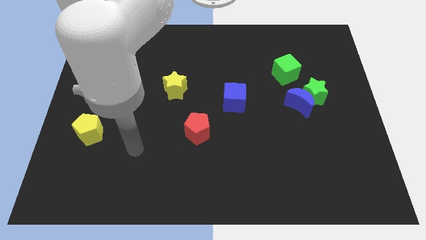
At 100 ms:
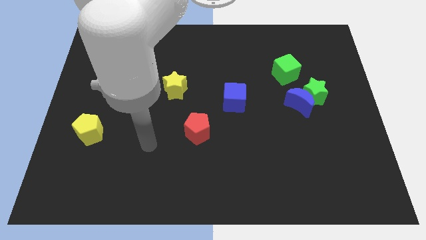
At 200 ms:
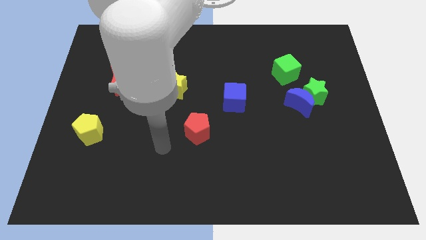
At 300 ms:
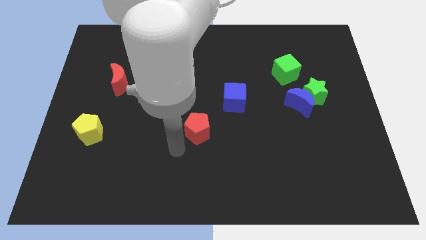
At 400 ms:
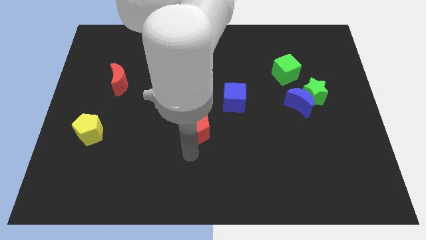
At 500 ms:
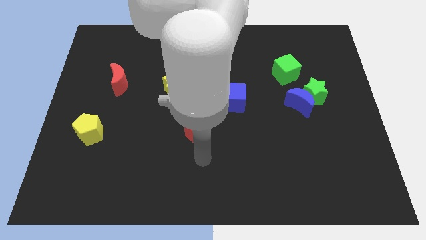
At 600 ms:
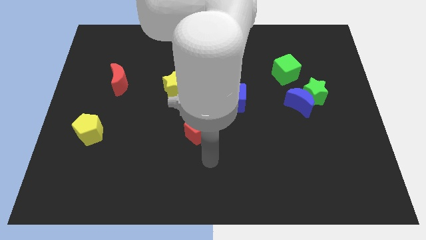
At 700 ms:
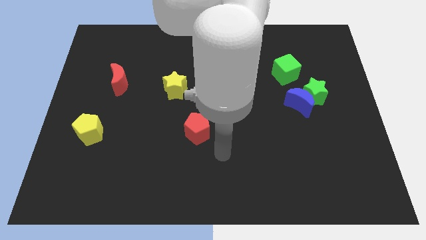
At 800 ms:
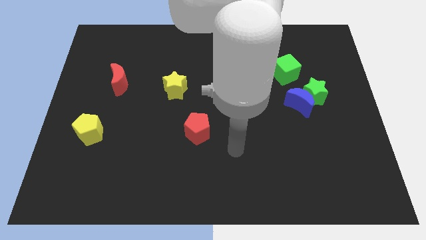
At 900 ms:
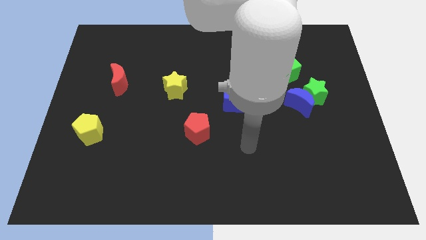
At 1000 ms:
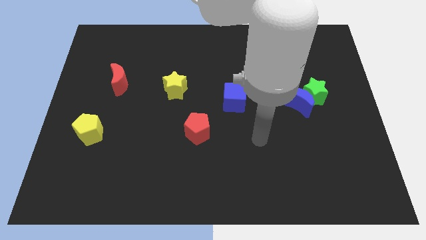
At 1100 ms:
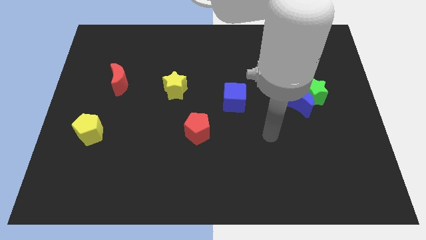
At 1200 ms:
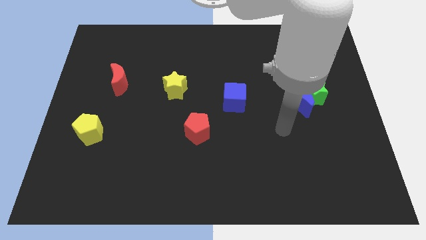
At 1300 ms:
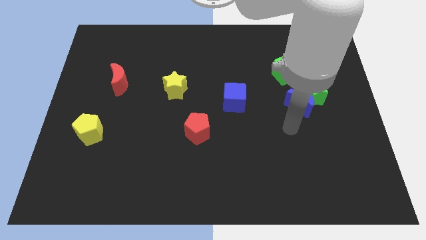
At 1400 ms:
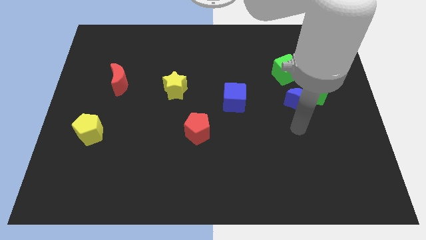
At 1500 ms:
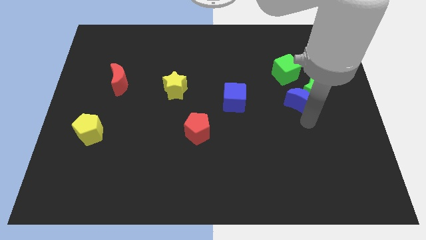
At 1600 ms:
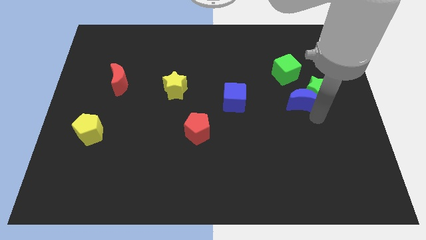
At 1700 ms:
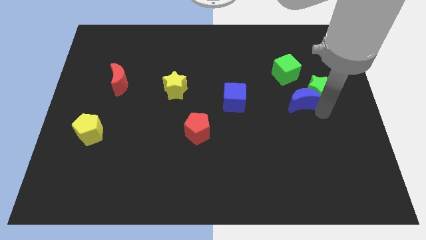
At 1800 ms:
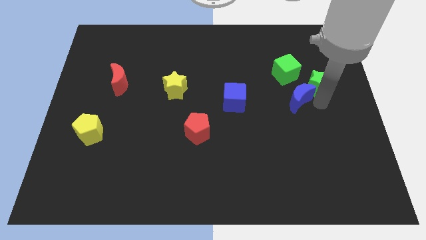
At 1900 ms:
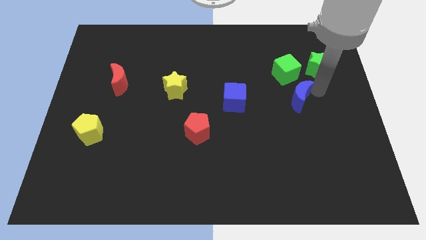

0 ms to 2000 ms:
separate the blue moon from the green star

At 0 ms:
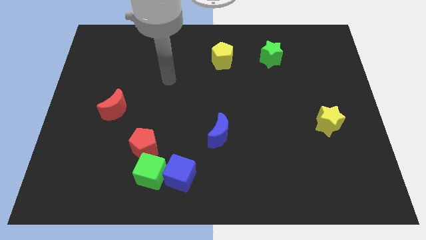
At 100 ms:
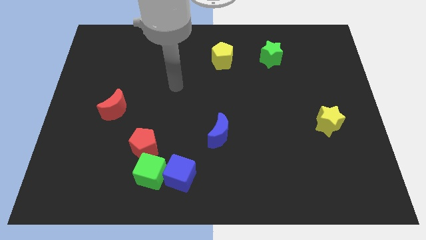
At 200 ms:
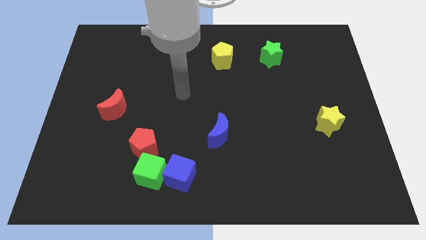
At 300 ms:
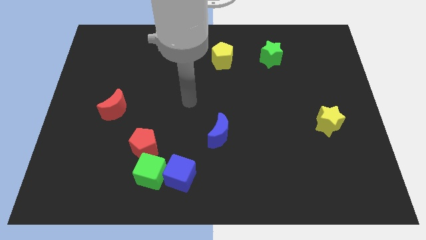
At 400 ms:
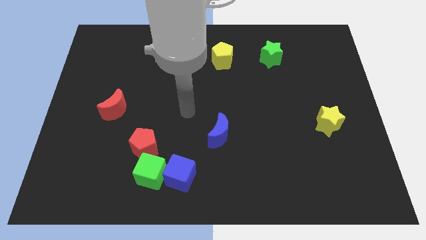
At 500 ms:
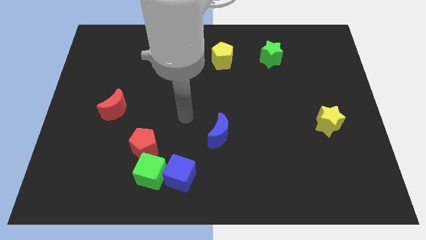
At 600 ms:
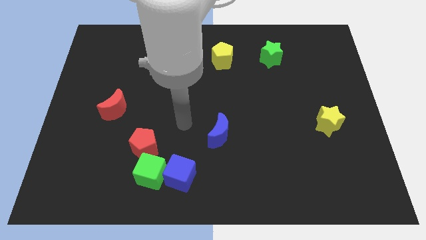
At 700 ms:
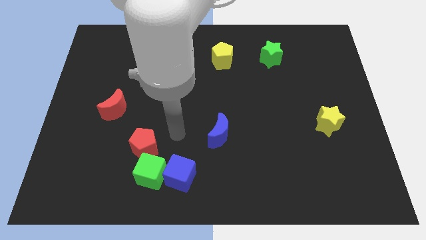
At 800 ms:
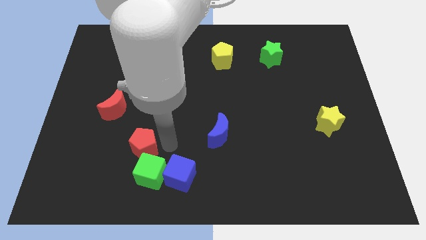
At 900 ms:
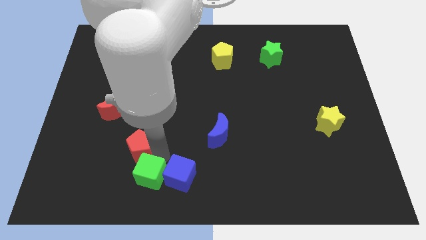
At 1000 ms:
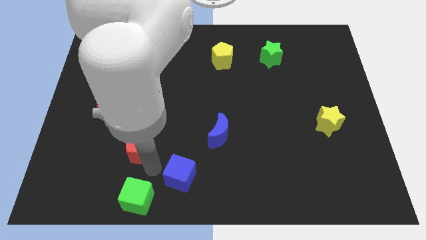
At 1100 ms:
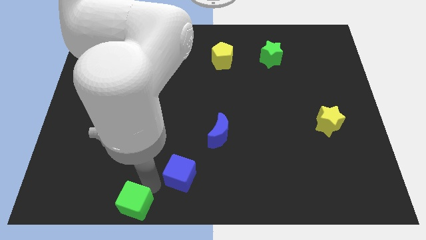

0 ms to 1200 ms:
separate the blue cube from the green cube

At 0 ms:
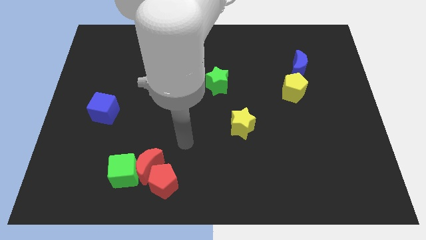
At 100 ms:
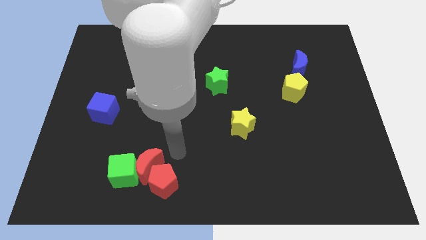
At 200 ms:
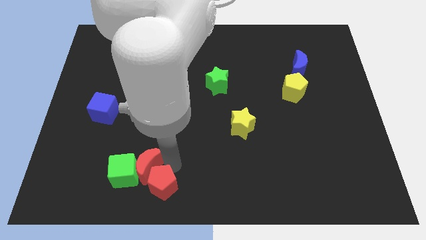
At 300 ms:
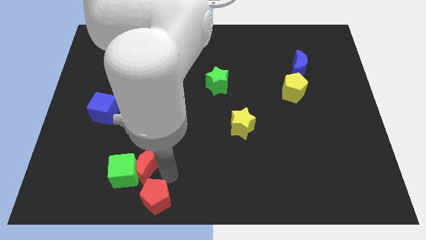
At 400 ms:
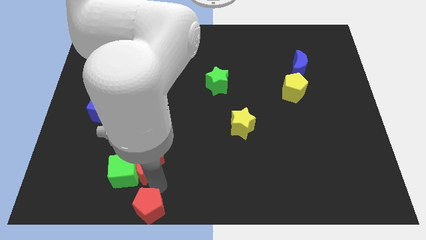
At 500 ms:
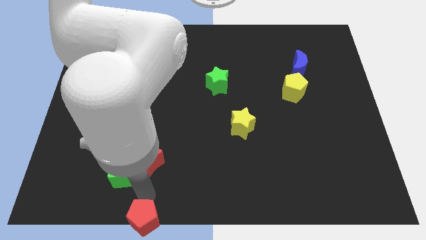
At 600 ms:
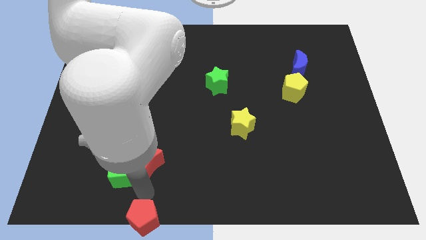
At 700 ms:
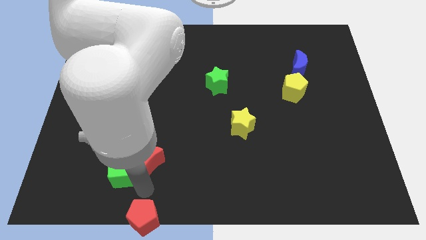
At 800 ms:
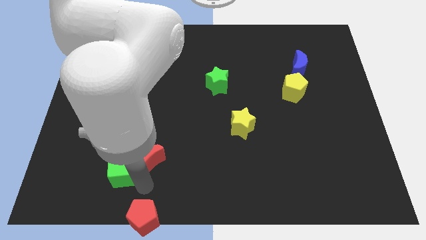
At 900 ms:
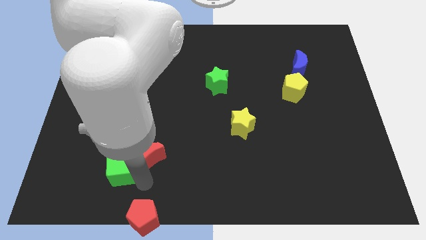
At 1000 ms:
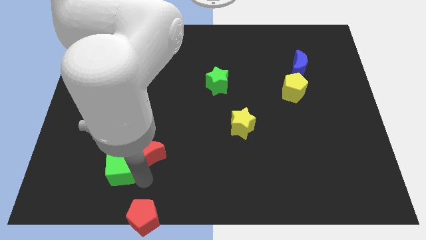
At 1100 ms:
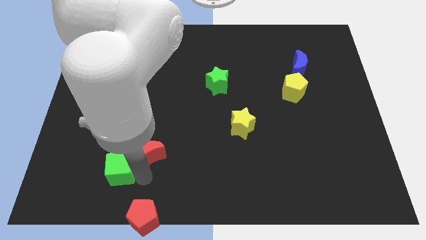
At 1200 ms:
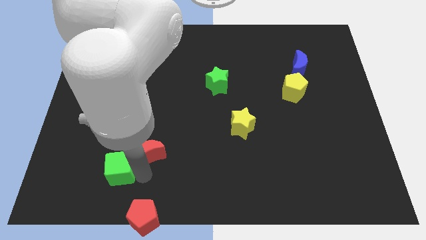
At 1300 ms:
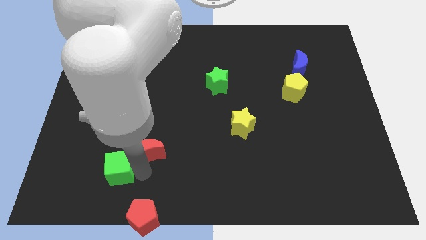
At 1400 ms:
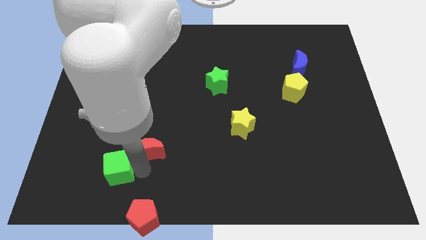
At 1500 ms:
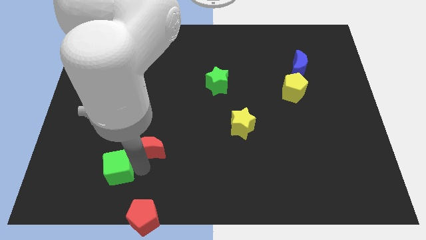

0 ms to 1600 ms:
pull the red moon apart from the green cube and red pentagon

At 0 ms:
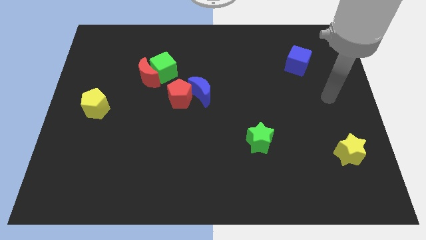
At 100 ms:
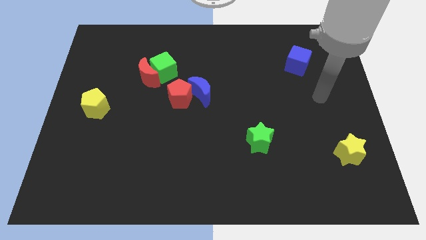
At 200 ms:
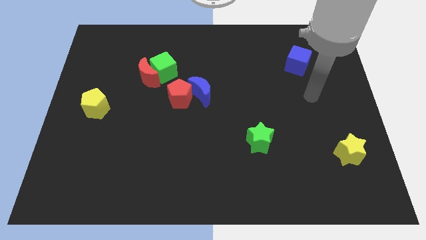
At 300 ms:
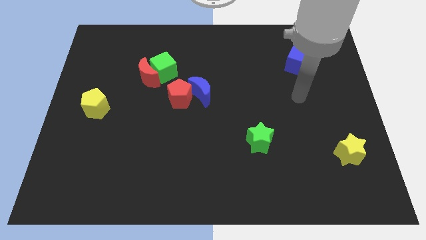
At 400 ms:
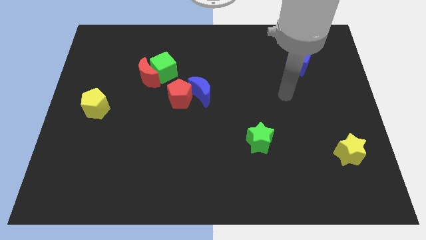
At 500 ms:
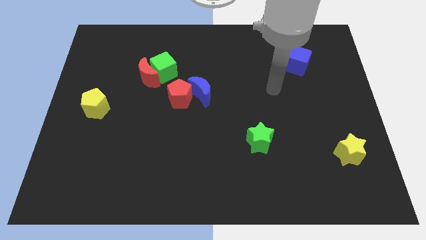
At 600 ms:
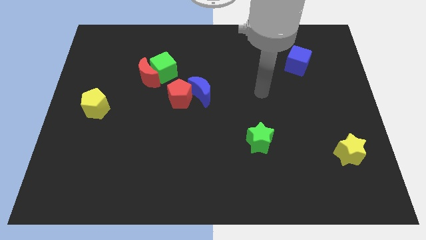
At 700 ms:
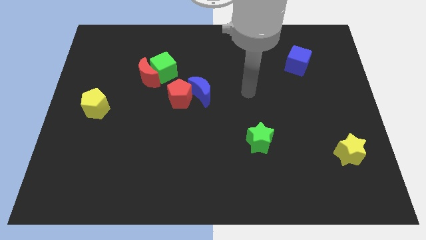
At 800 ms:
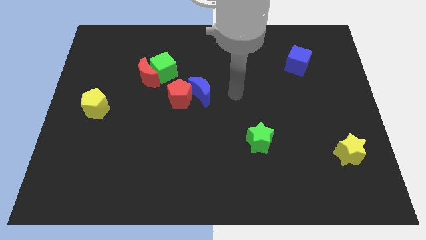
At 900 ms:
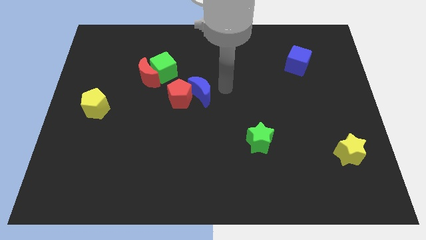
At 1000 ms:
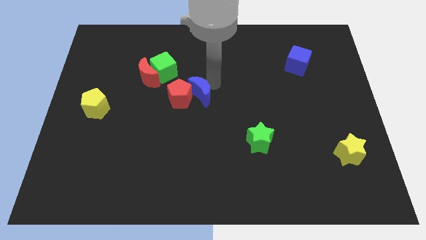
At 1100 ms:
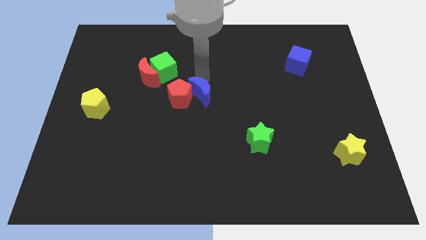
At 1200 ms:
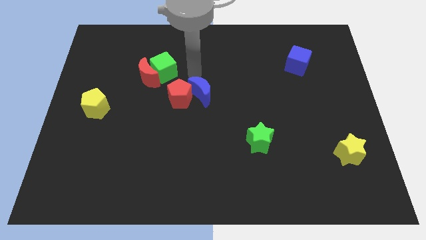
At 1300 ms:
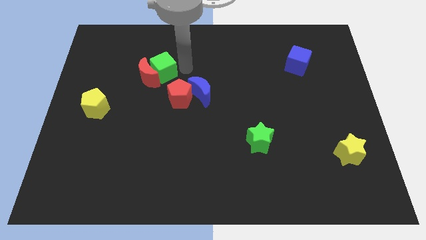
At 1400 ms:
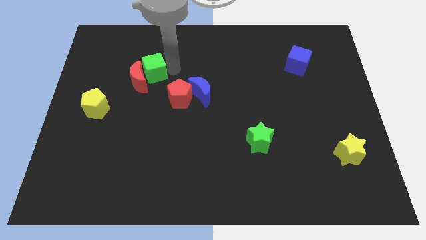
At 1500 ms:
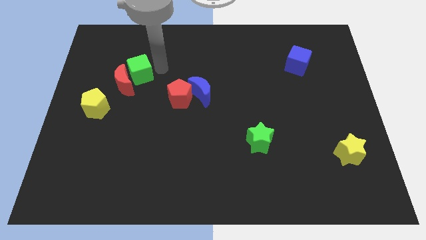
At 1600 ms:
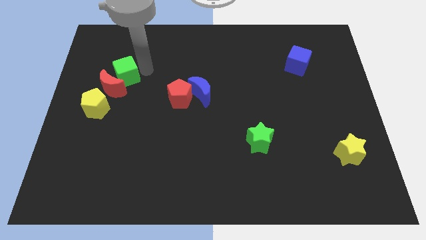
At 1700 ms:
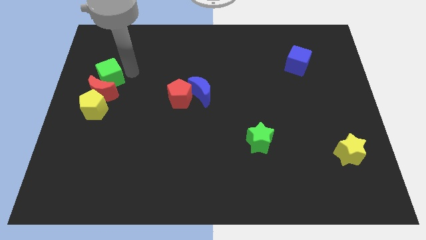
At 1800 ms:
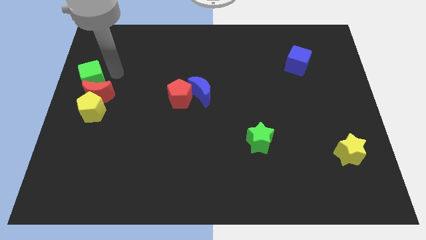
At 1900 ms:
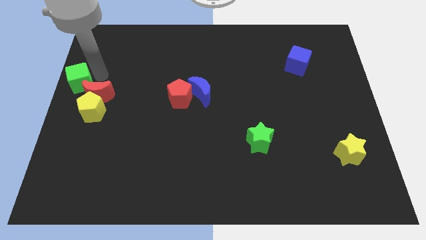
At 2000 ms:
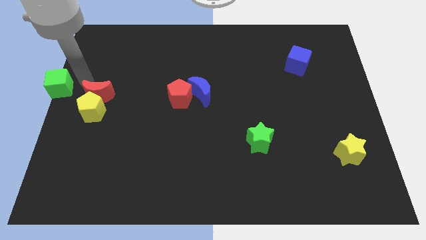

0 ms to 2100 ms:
move the red moon away from the green cube

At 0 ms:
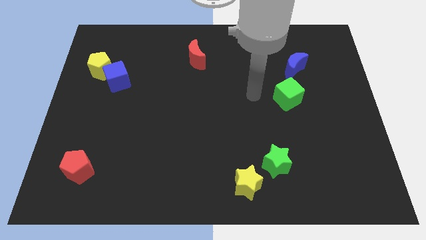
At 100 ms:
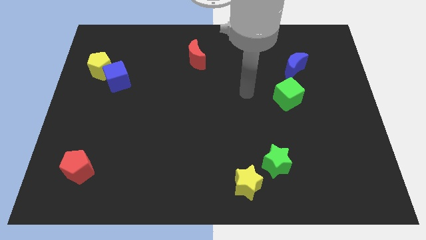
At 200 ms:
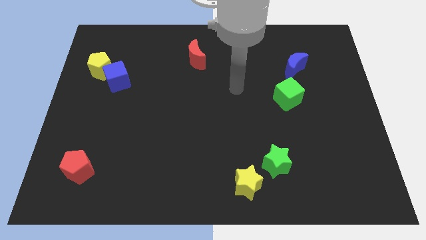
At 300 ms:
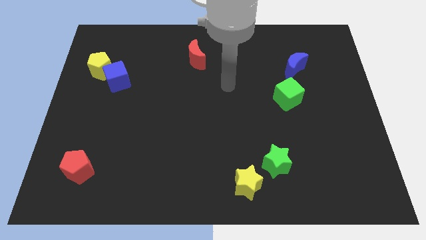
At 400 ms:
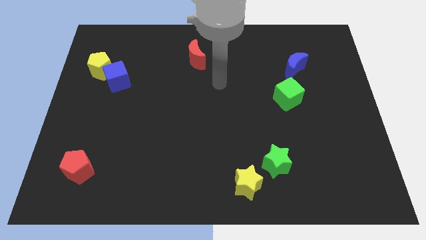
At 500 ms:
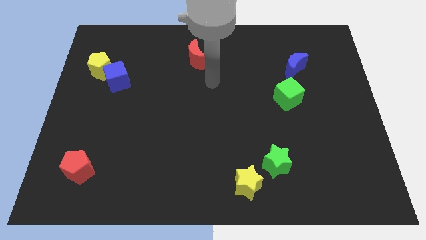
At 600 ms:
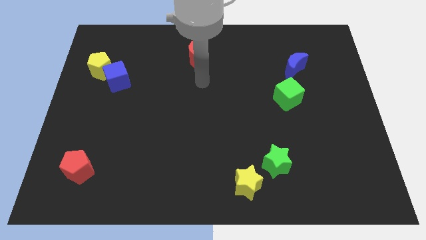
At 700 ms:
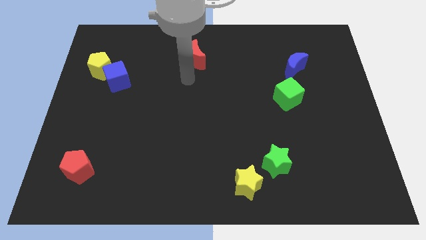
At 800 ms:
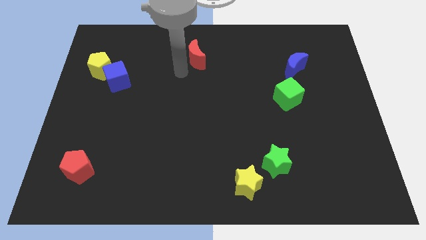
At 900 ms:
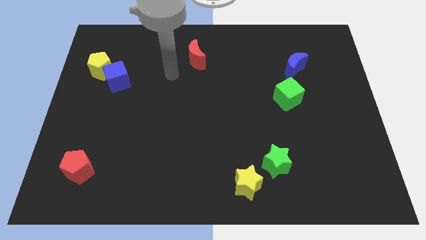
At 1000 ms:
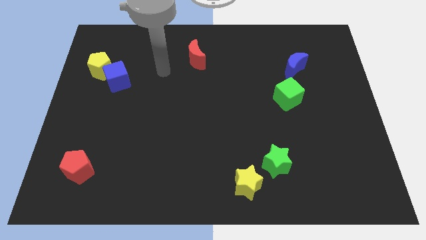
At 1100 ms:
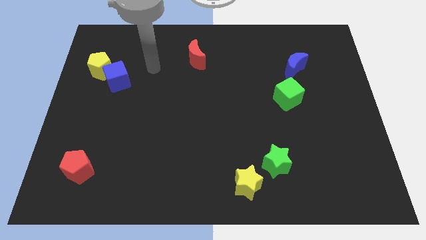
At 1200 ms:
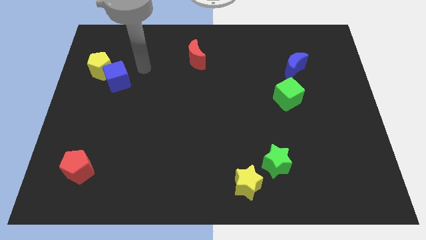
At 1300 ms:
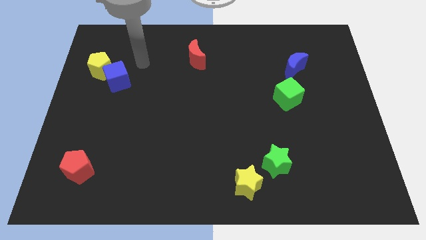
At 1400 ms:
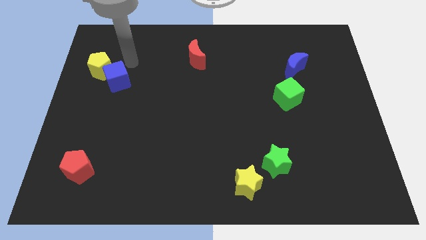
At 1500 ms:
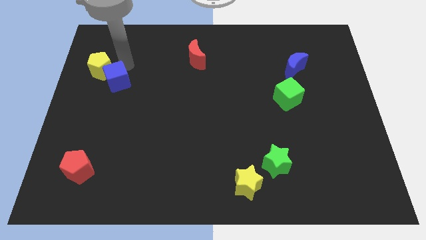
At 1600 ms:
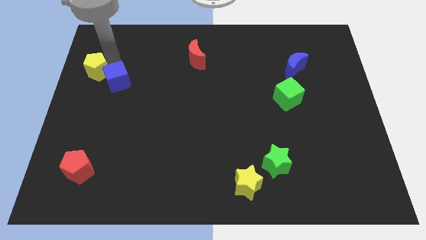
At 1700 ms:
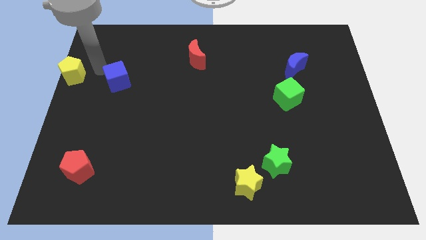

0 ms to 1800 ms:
pull the blue cube apart from the yellow pentagon

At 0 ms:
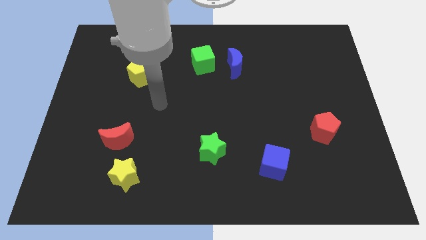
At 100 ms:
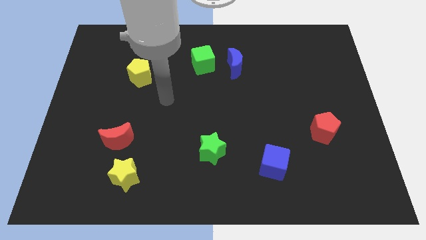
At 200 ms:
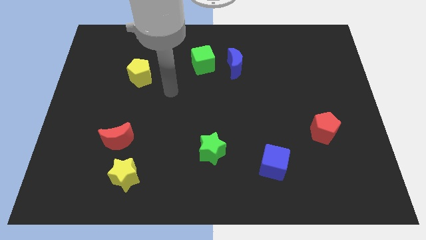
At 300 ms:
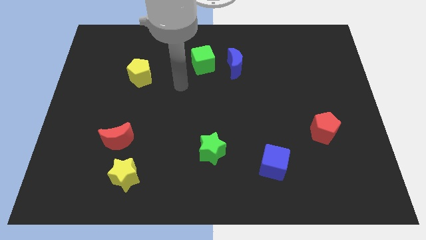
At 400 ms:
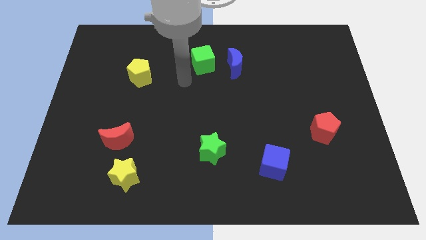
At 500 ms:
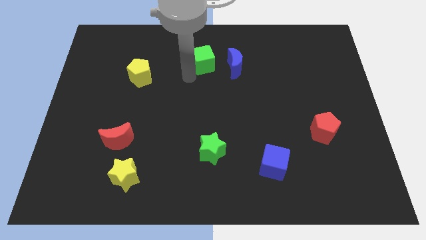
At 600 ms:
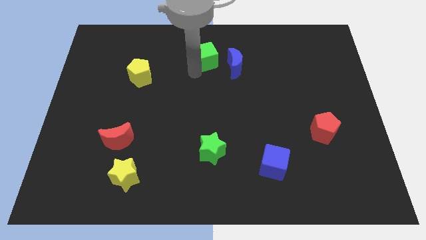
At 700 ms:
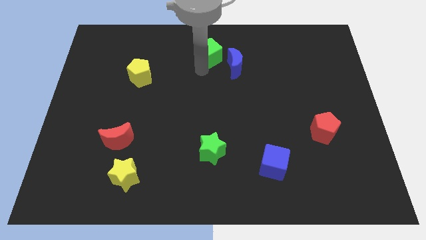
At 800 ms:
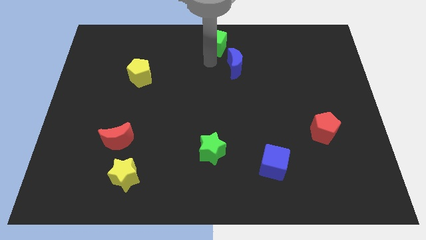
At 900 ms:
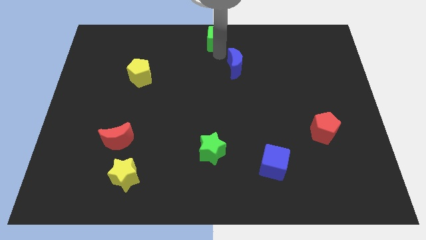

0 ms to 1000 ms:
separate the blue moon from the green cube
